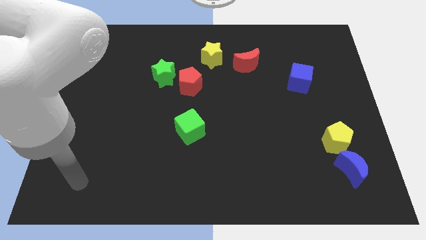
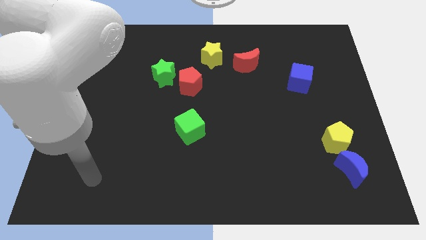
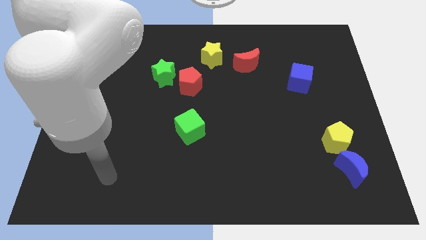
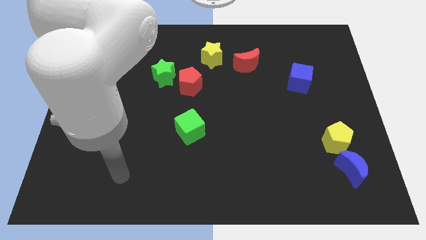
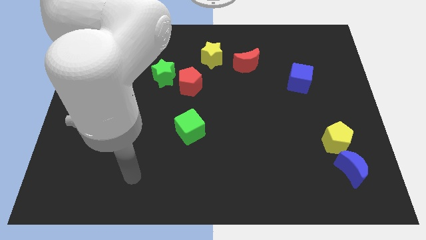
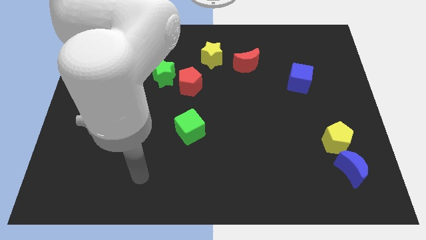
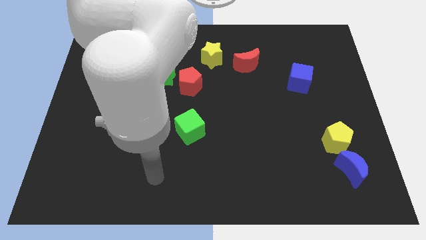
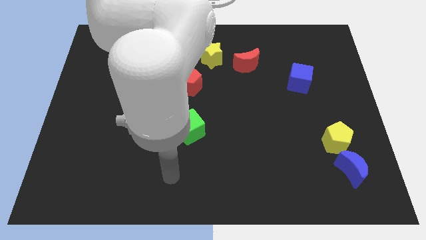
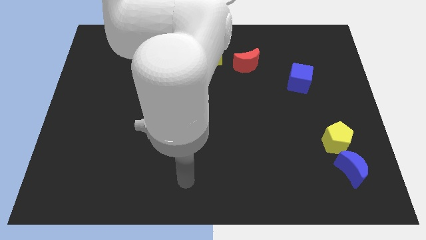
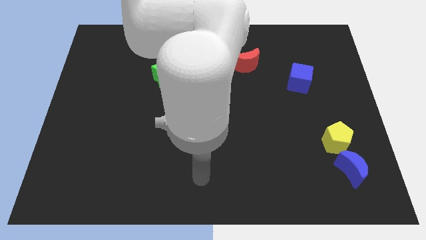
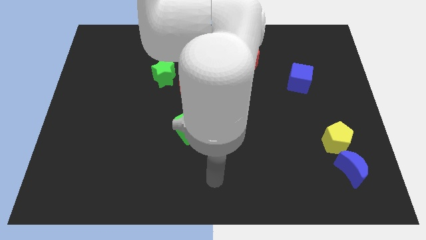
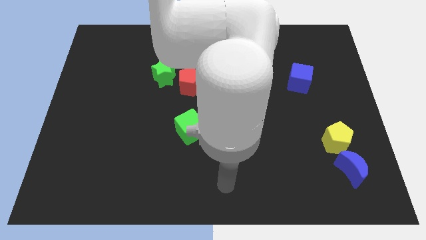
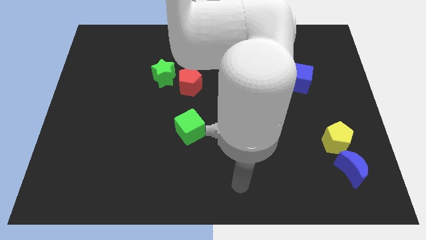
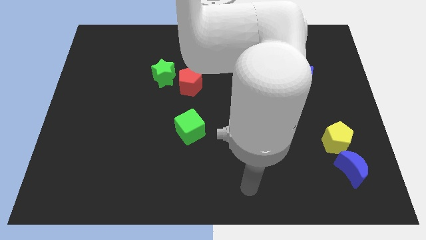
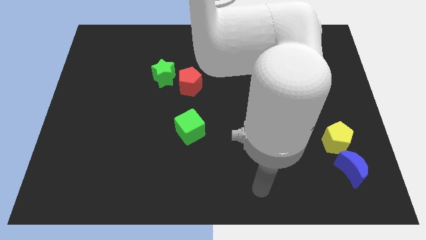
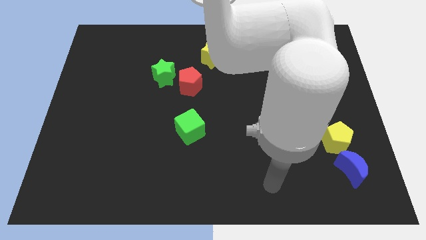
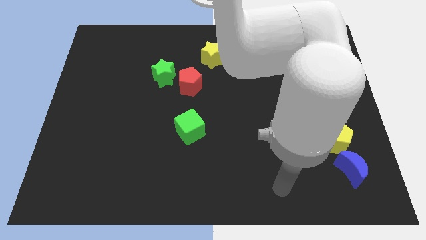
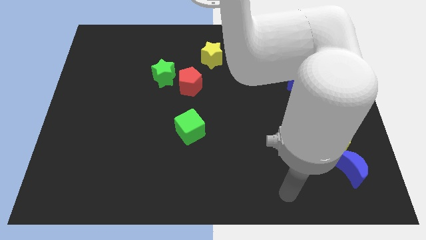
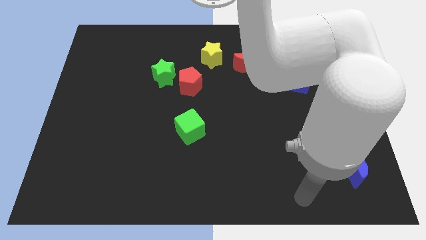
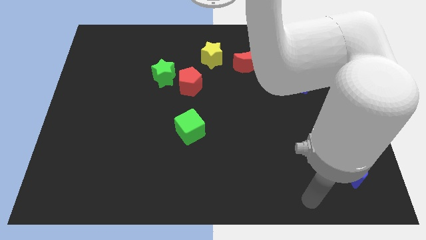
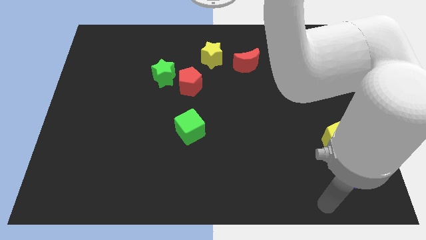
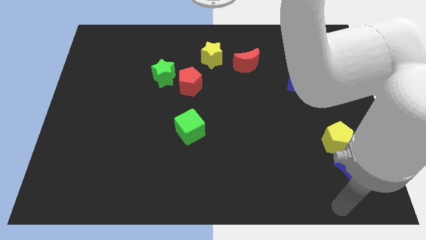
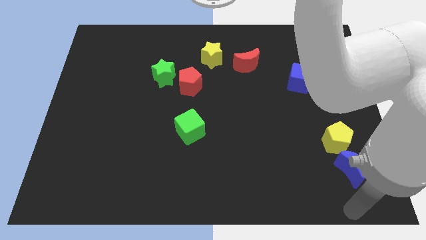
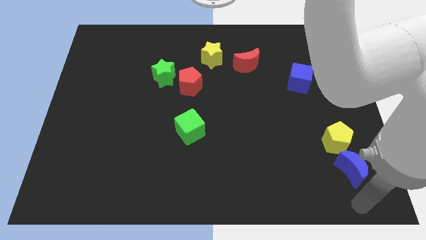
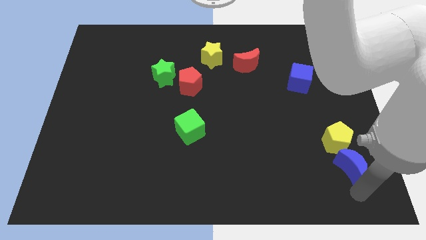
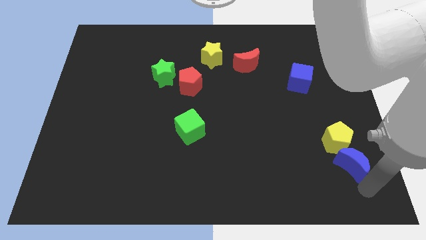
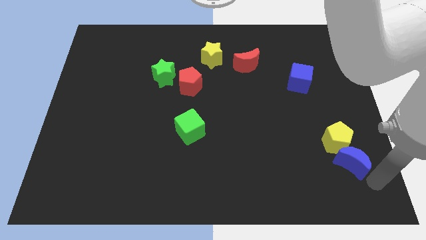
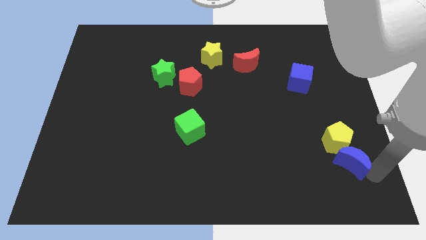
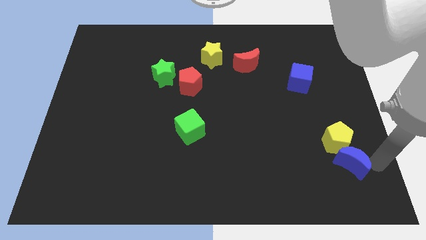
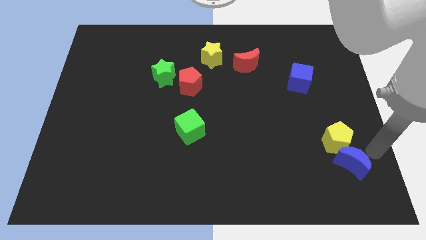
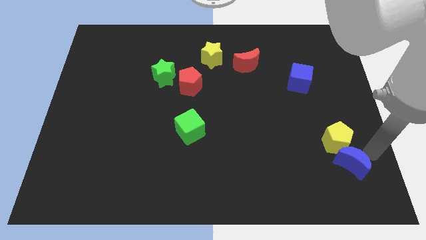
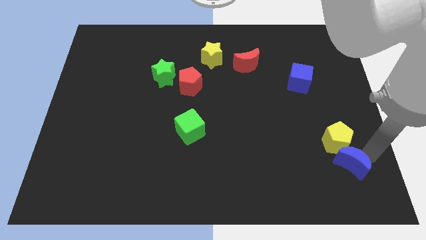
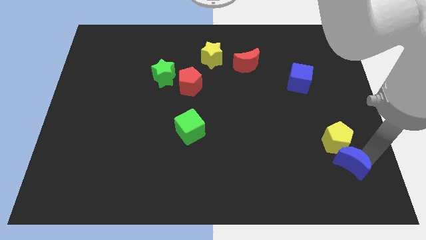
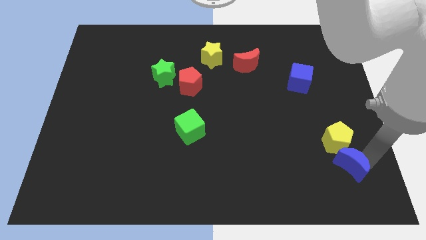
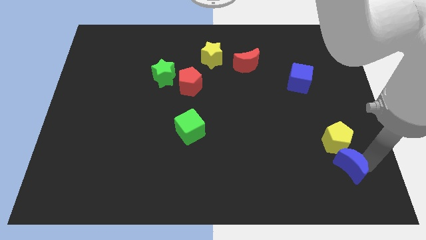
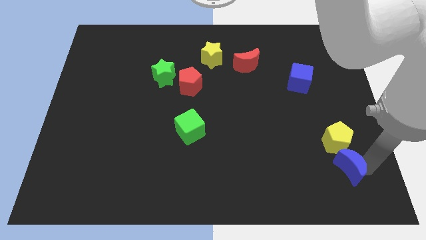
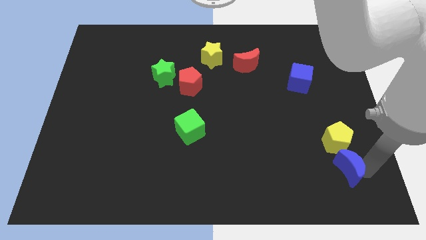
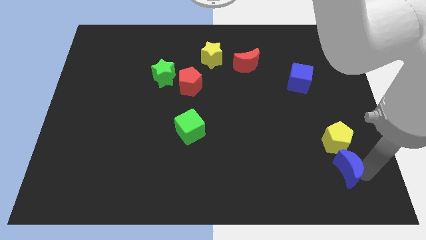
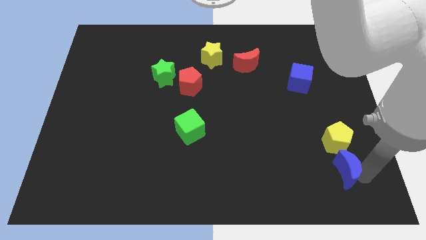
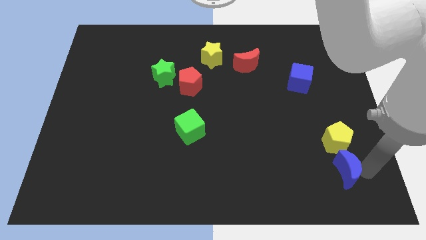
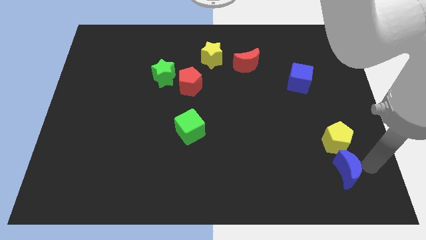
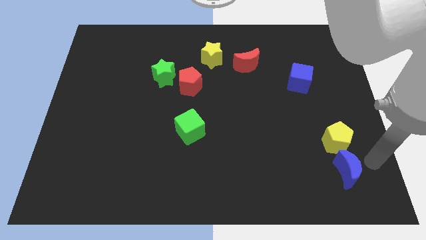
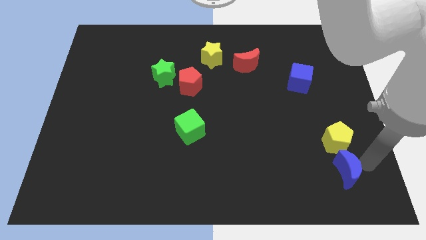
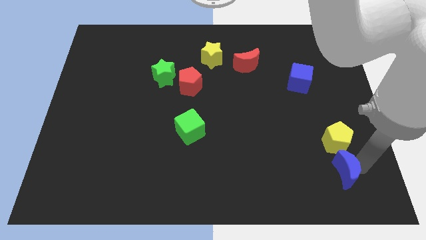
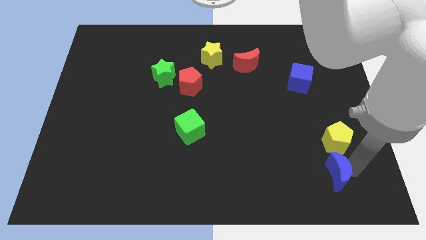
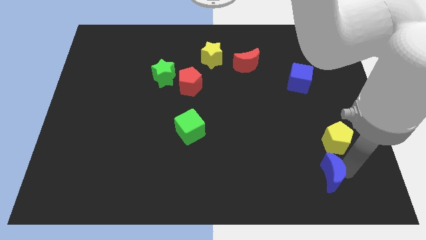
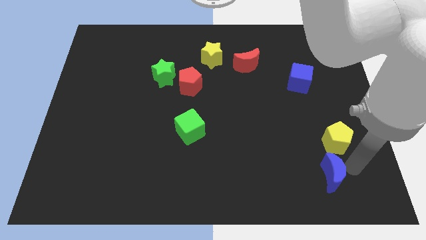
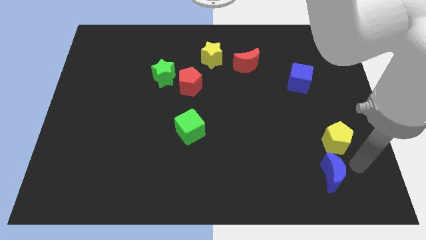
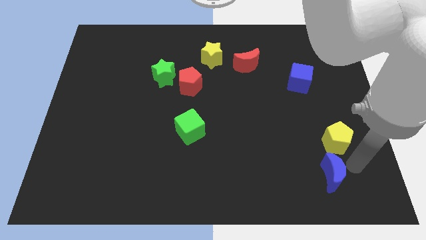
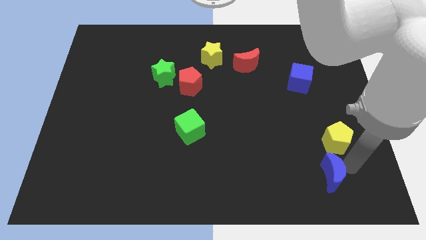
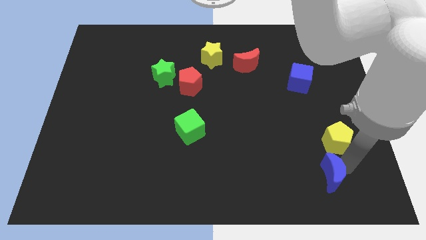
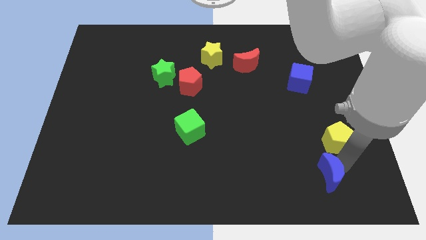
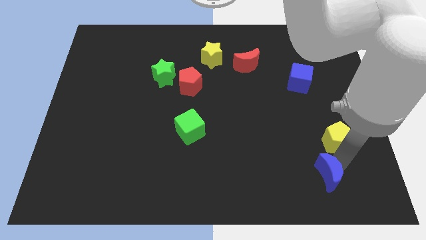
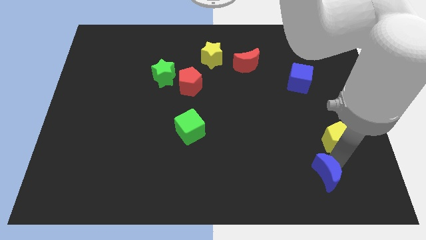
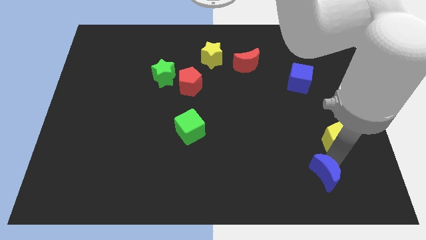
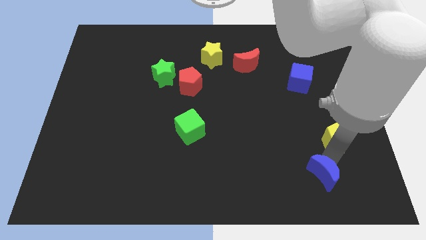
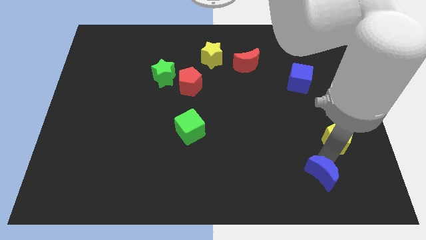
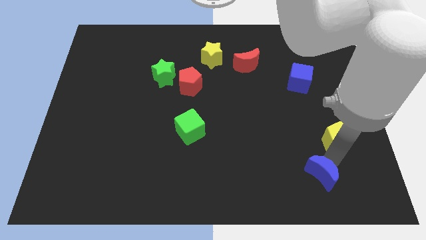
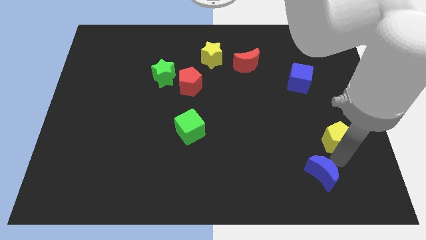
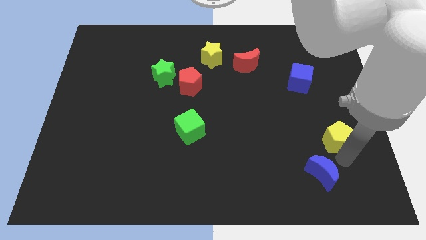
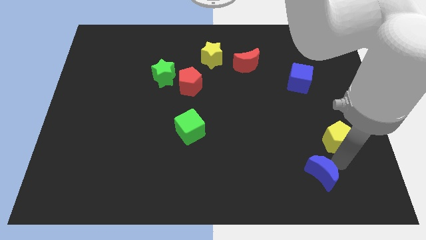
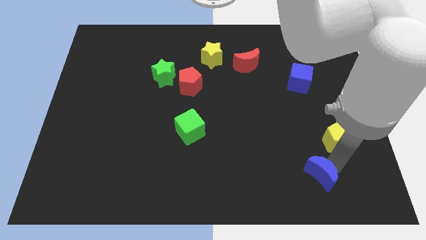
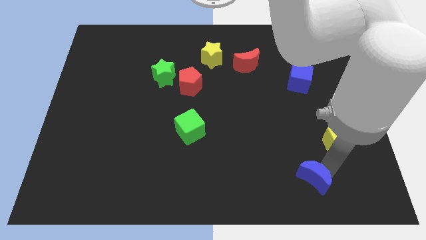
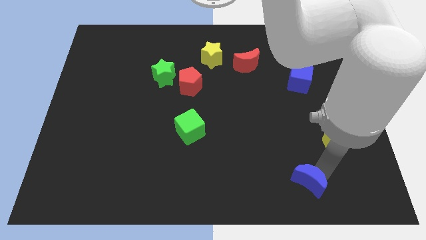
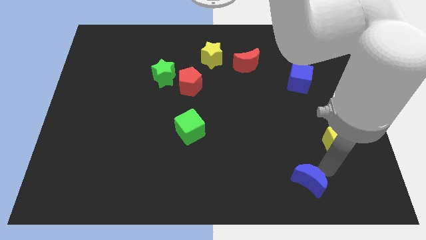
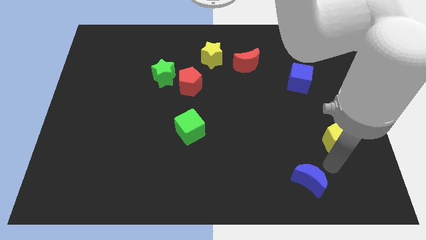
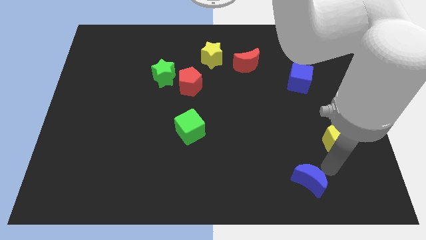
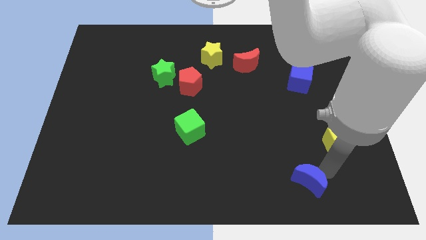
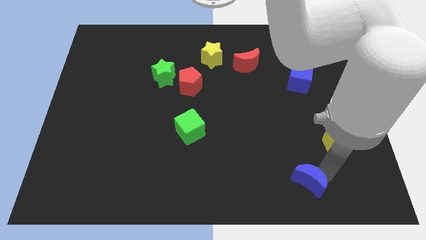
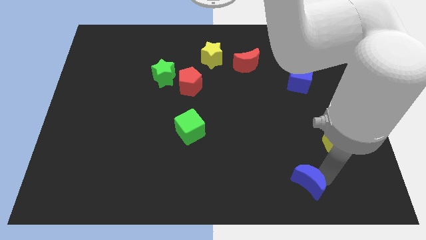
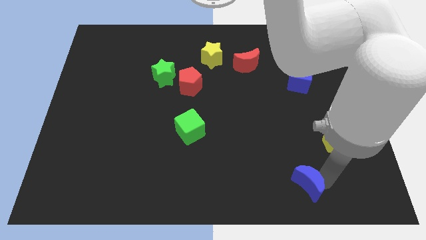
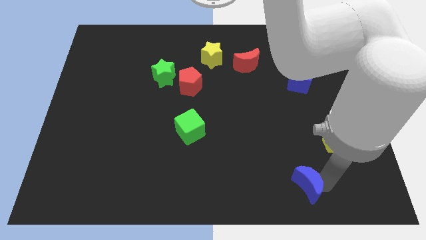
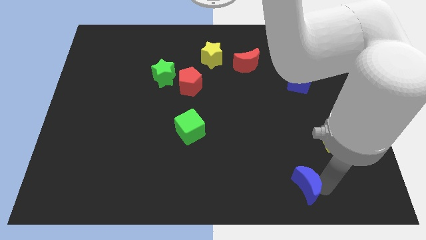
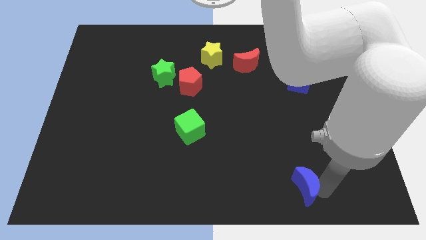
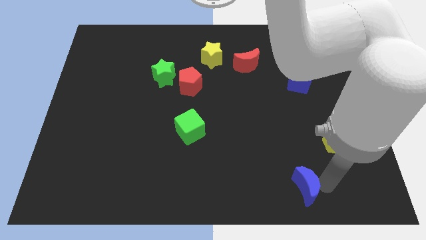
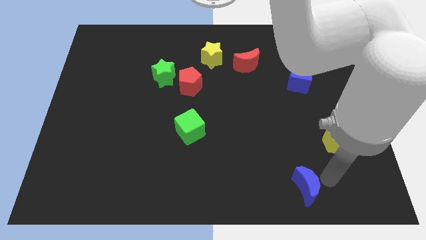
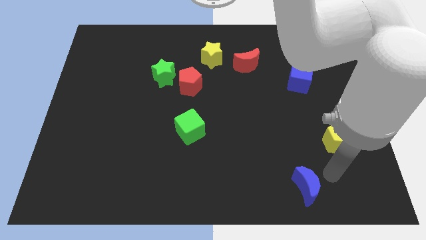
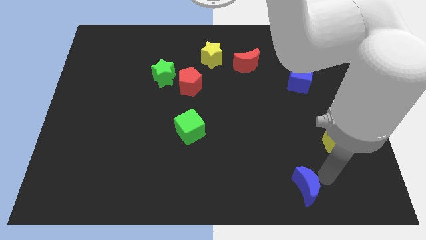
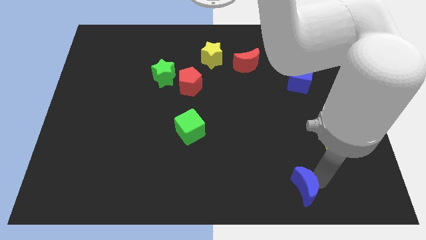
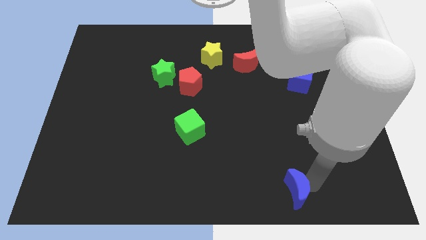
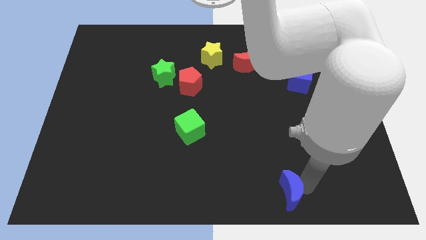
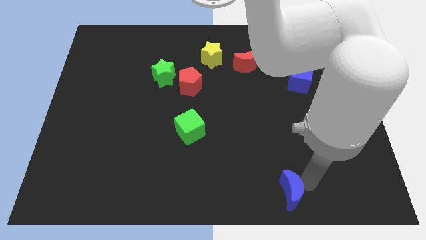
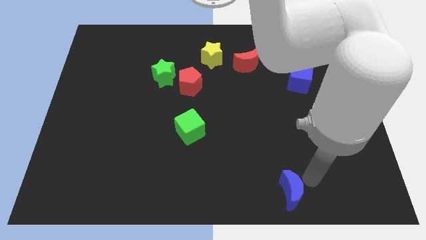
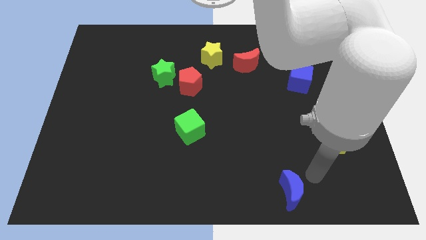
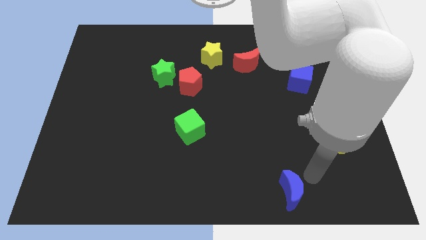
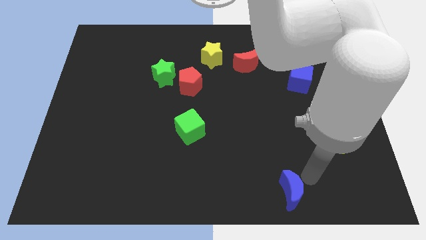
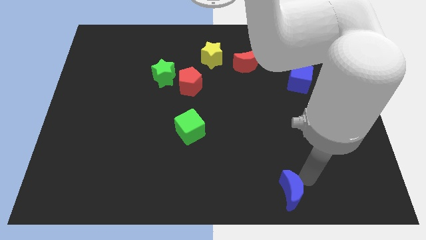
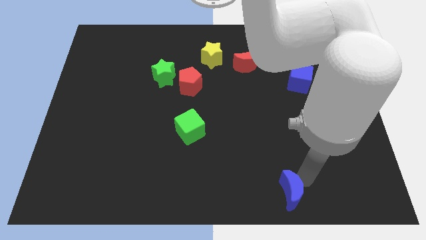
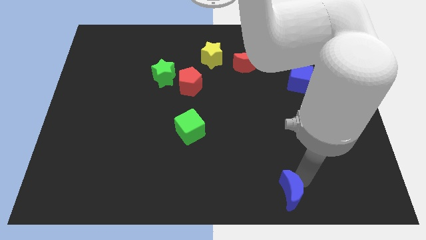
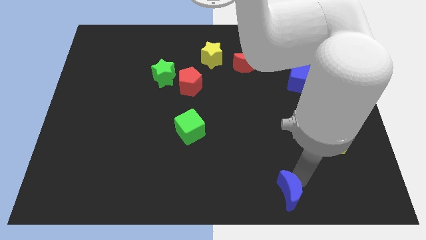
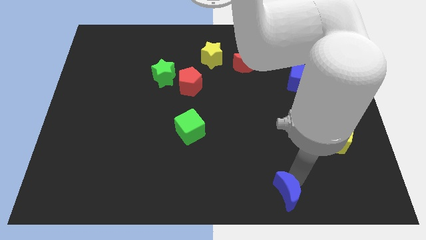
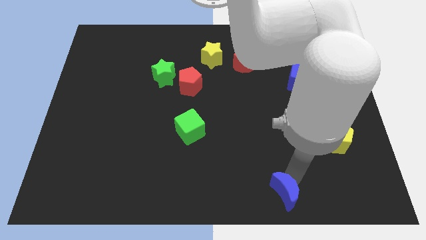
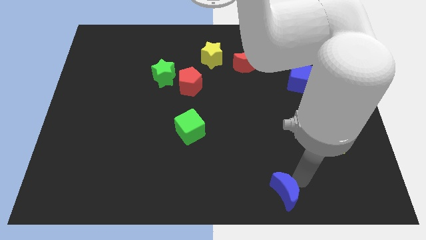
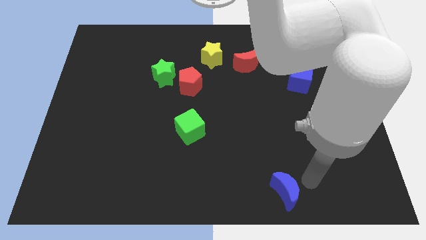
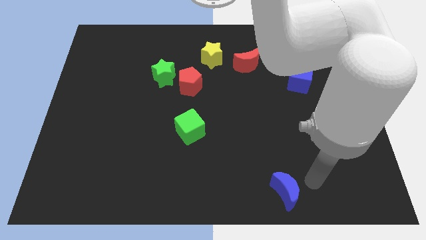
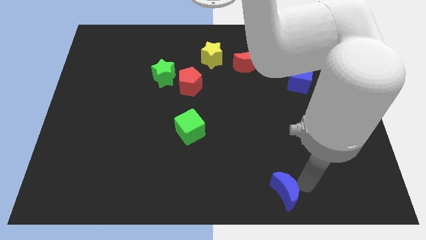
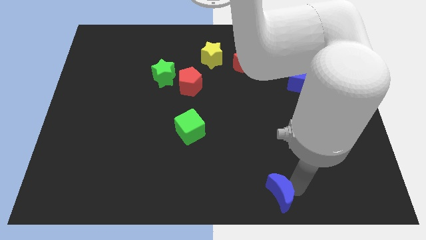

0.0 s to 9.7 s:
move the blue moon to the bottom
